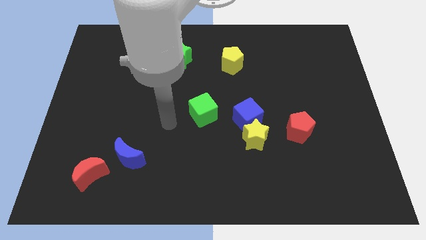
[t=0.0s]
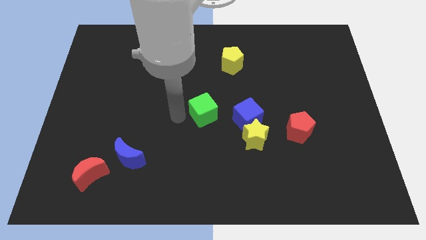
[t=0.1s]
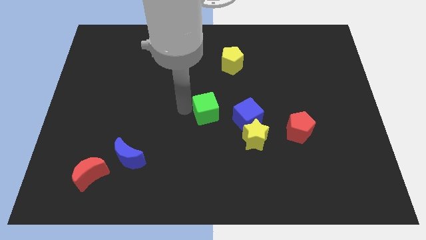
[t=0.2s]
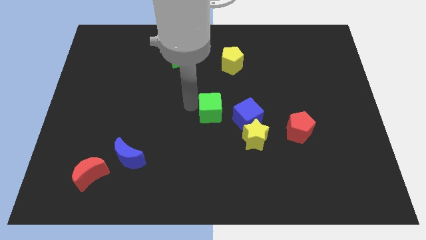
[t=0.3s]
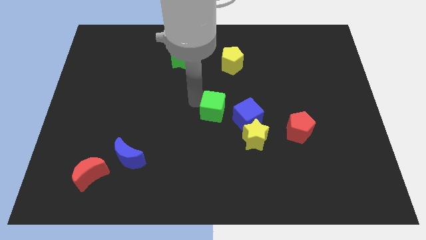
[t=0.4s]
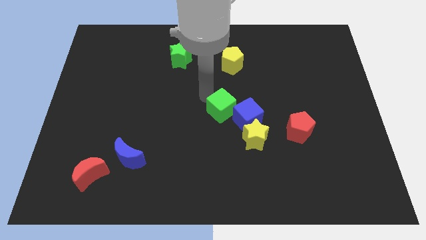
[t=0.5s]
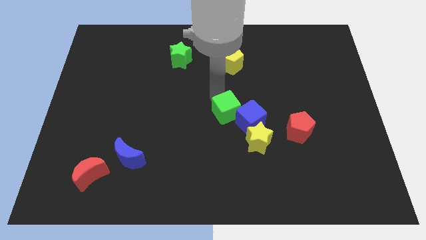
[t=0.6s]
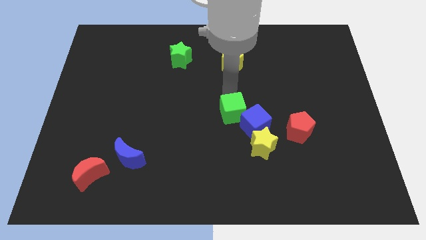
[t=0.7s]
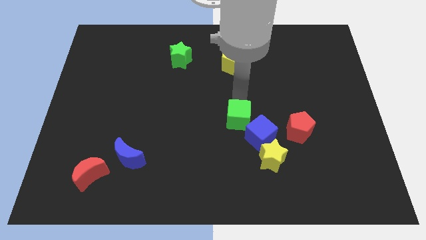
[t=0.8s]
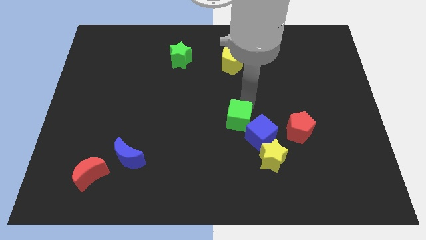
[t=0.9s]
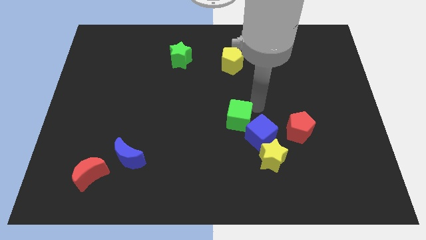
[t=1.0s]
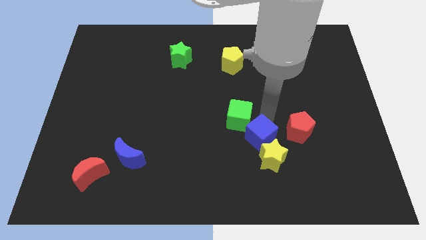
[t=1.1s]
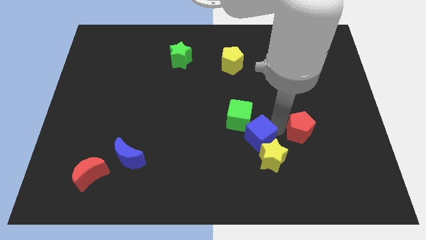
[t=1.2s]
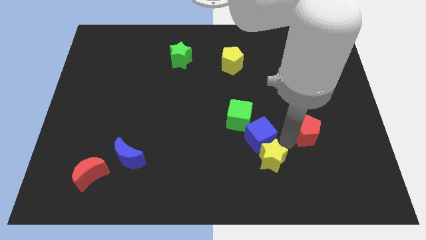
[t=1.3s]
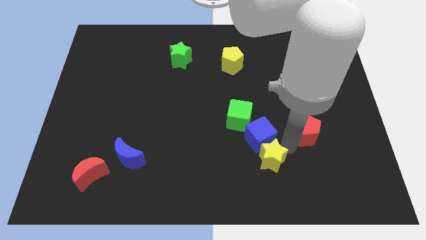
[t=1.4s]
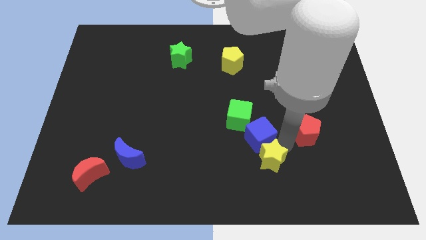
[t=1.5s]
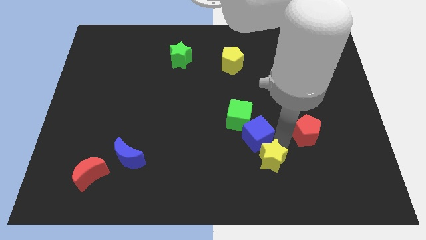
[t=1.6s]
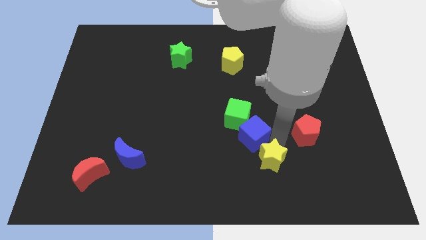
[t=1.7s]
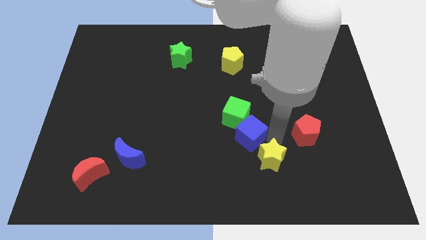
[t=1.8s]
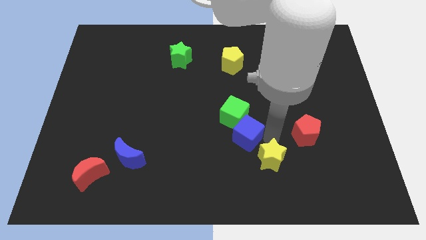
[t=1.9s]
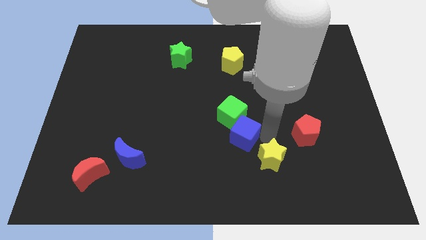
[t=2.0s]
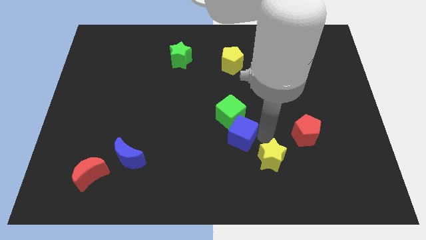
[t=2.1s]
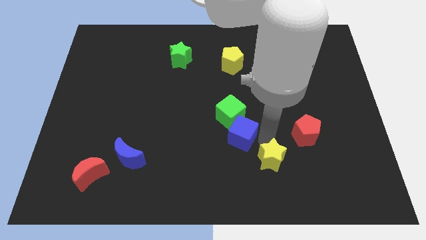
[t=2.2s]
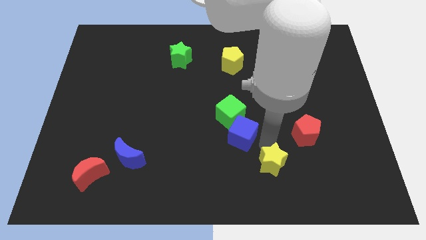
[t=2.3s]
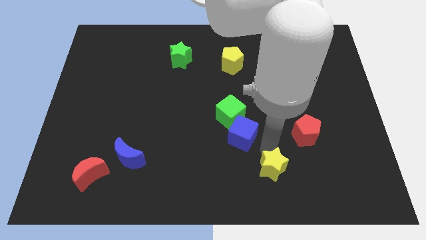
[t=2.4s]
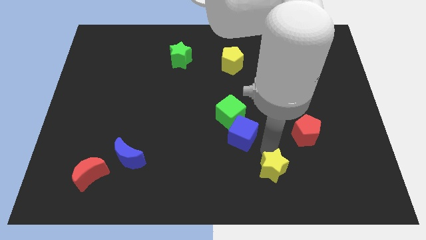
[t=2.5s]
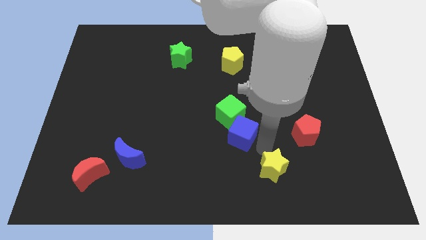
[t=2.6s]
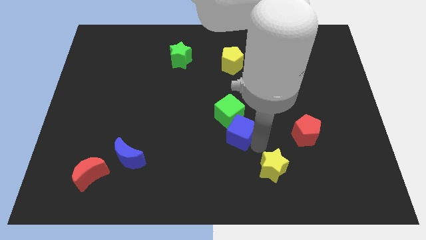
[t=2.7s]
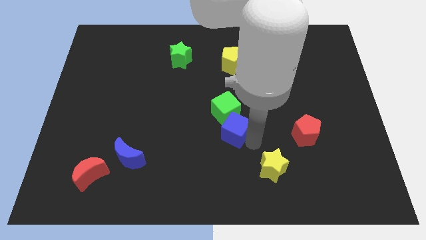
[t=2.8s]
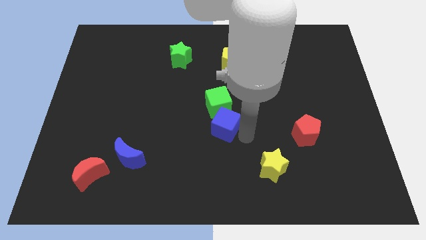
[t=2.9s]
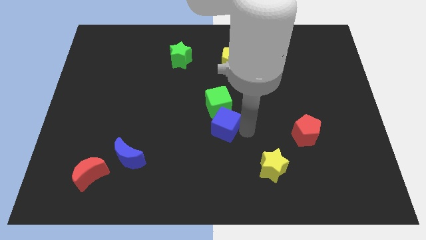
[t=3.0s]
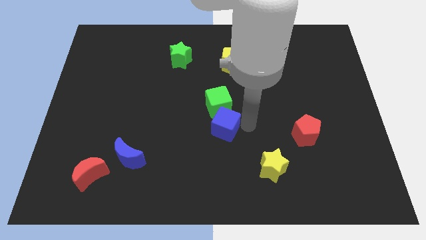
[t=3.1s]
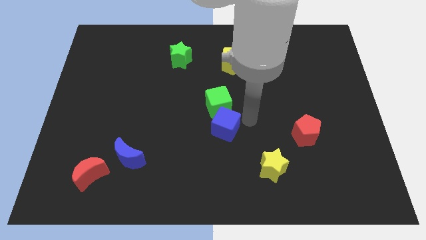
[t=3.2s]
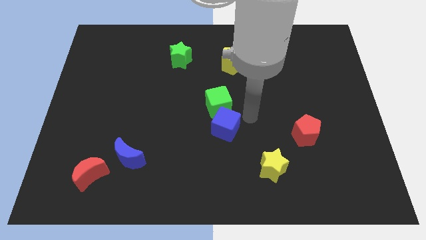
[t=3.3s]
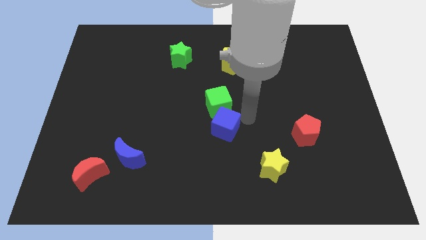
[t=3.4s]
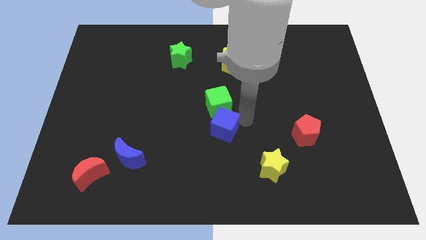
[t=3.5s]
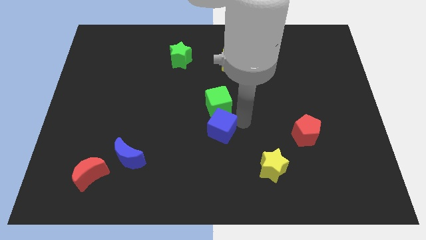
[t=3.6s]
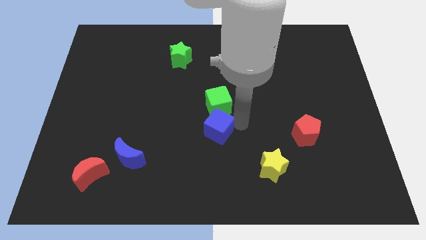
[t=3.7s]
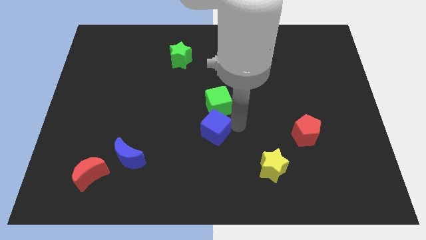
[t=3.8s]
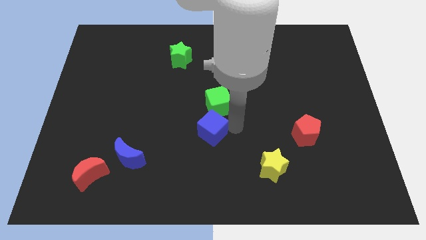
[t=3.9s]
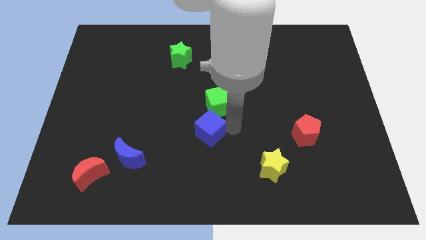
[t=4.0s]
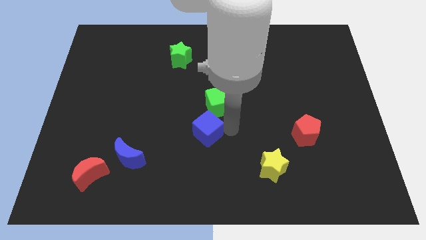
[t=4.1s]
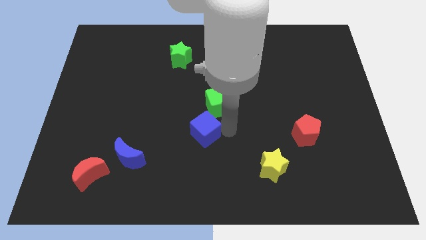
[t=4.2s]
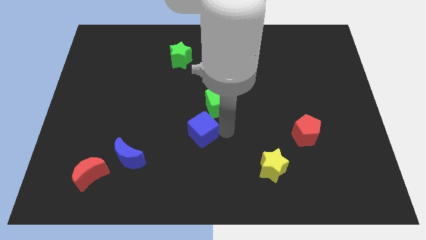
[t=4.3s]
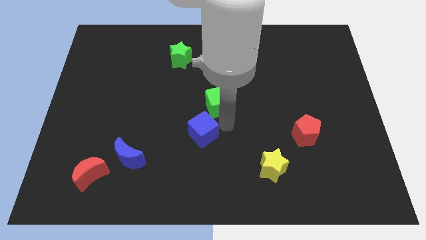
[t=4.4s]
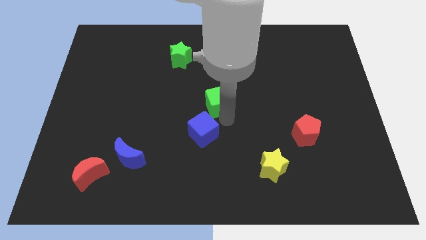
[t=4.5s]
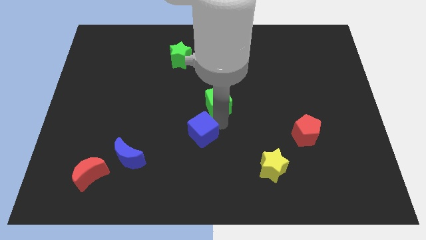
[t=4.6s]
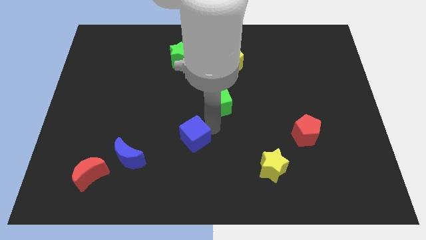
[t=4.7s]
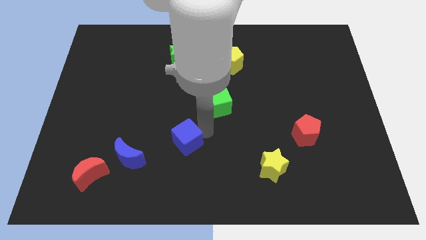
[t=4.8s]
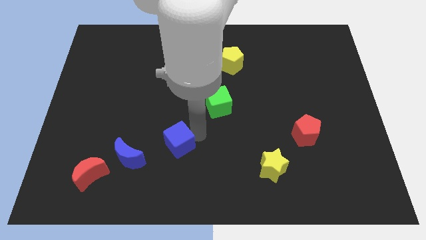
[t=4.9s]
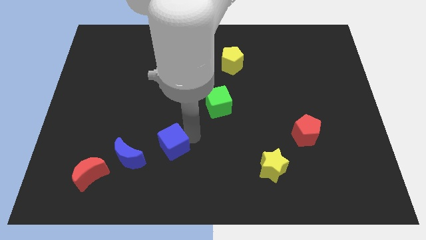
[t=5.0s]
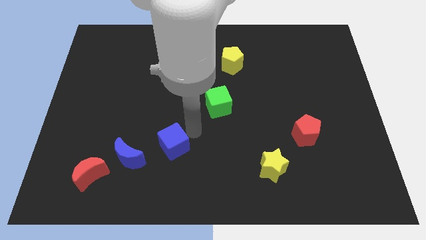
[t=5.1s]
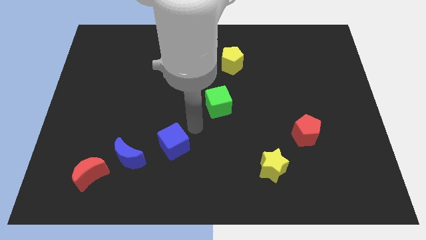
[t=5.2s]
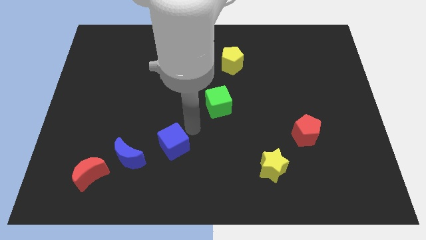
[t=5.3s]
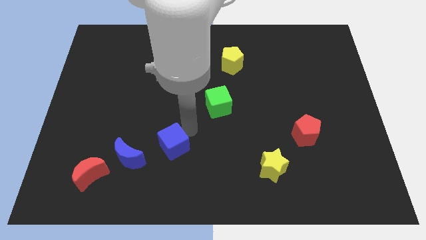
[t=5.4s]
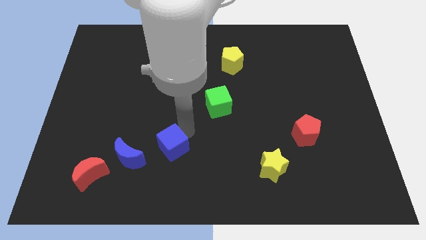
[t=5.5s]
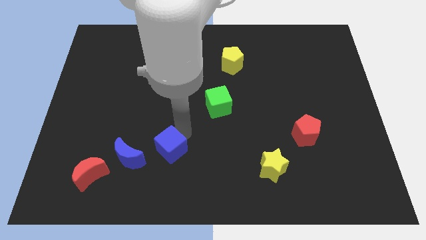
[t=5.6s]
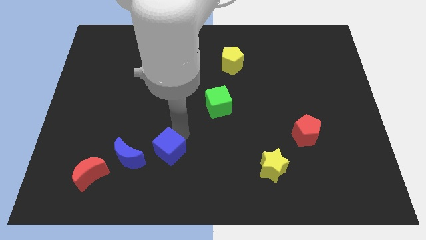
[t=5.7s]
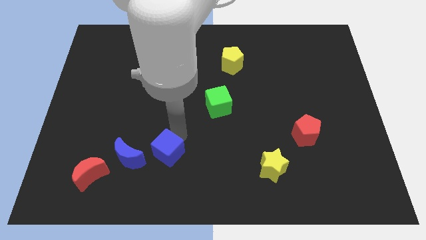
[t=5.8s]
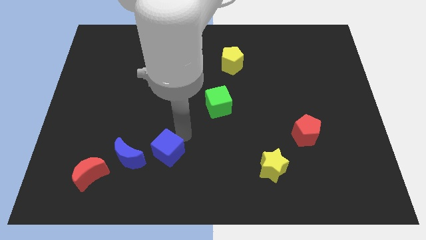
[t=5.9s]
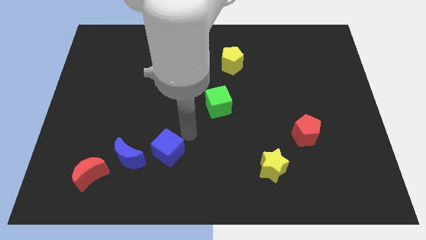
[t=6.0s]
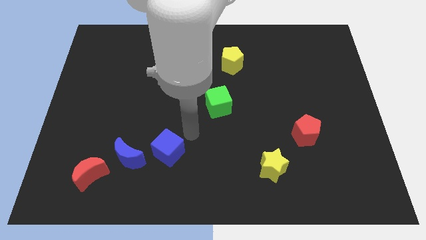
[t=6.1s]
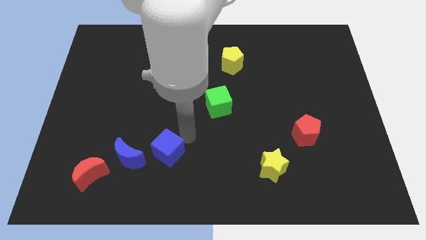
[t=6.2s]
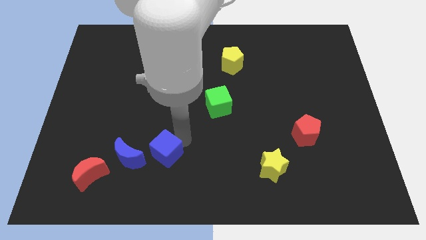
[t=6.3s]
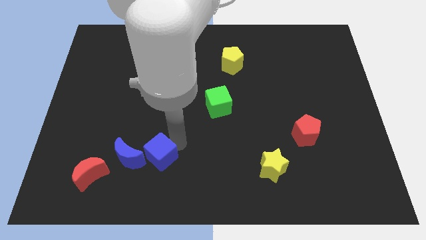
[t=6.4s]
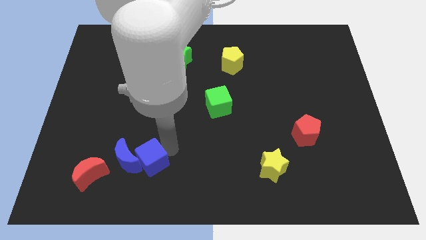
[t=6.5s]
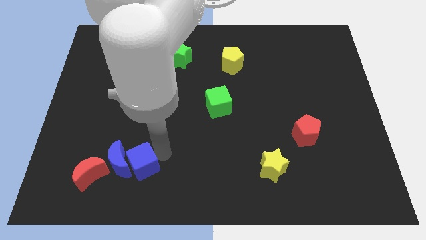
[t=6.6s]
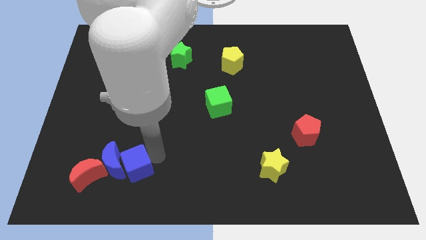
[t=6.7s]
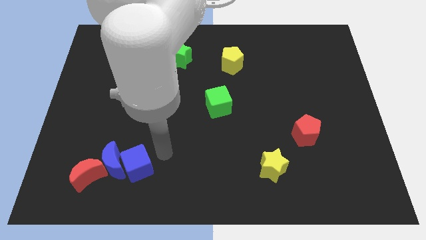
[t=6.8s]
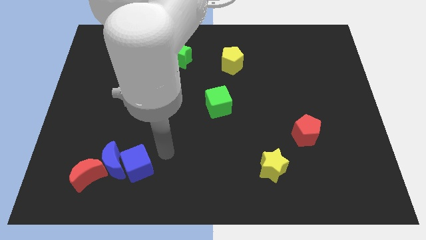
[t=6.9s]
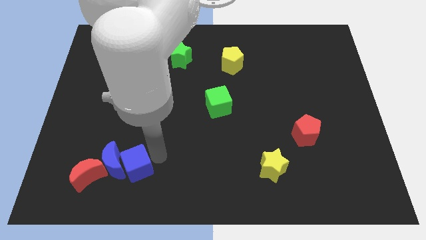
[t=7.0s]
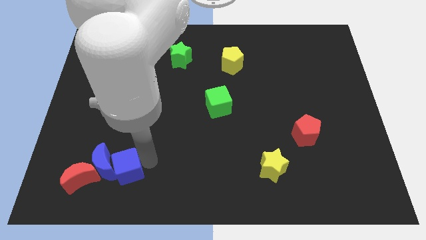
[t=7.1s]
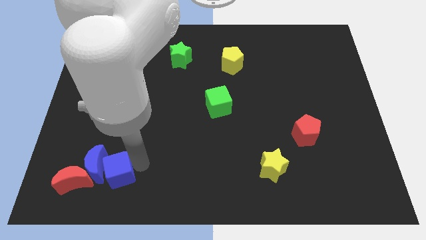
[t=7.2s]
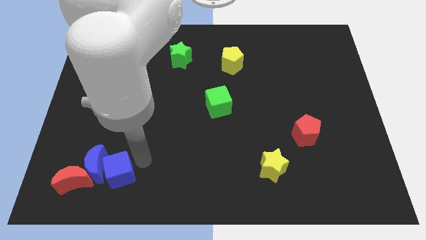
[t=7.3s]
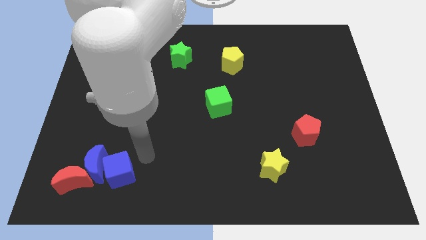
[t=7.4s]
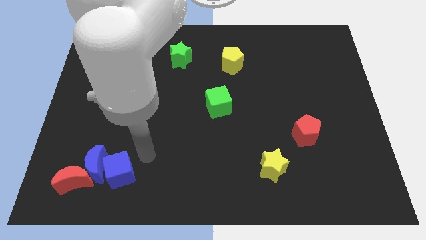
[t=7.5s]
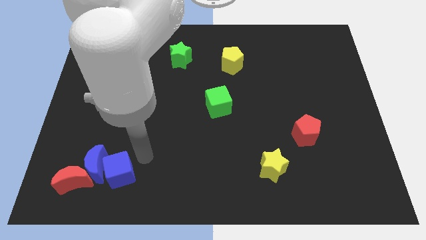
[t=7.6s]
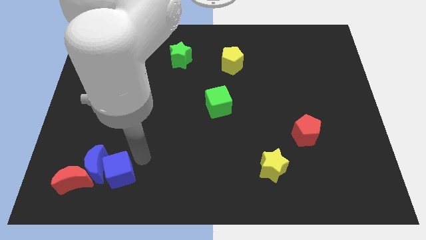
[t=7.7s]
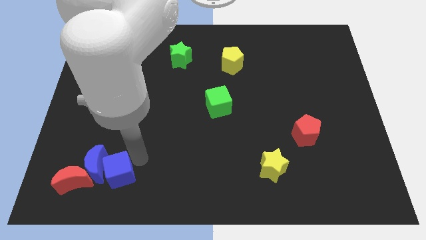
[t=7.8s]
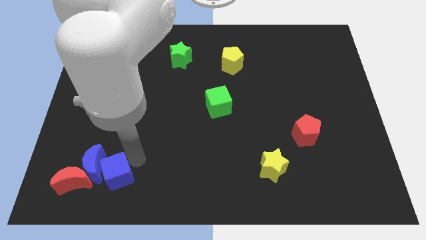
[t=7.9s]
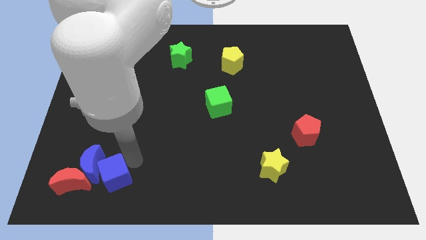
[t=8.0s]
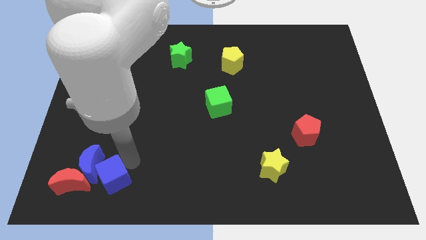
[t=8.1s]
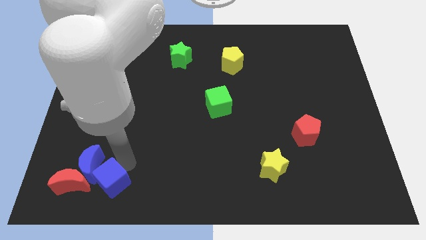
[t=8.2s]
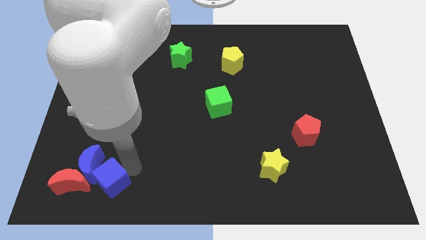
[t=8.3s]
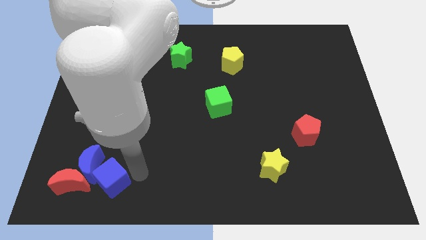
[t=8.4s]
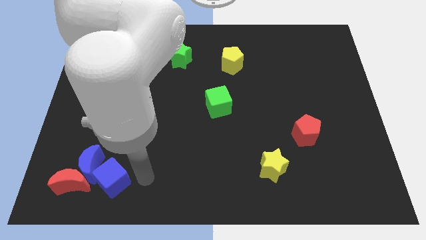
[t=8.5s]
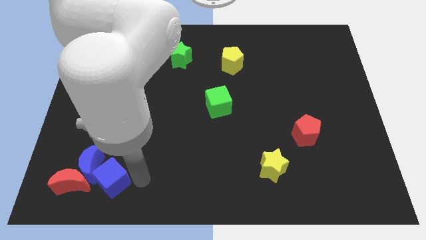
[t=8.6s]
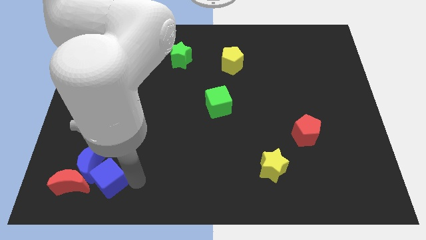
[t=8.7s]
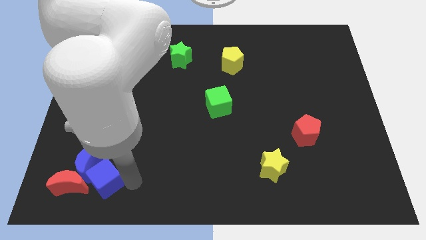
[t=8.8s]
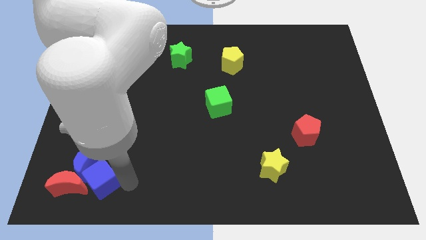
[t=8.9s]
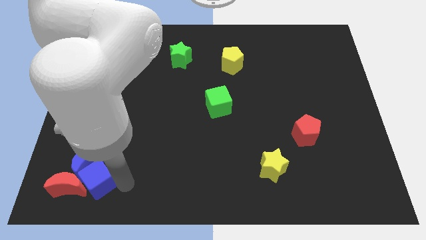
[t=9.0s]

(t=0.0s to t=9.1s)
put the blue cube towards the red moon
